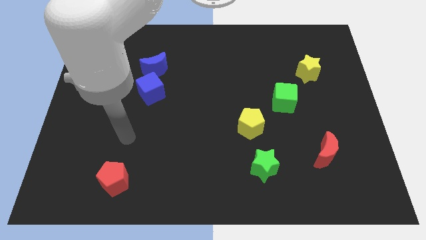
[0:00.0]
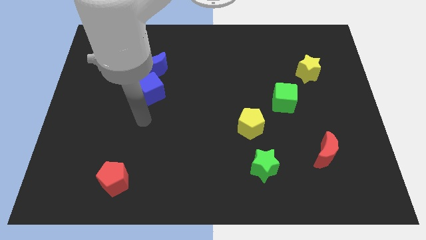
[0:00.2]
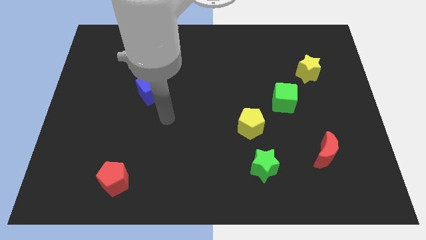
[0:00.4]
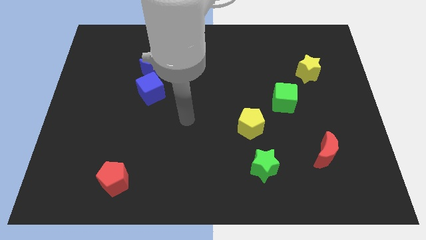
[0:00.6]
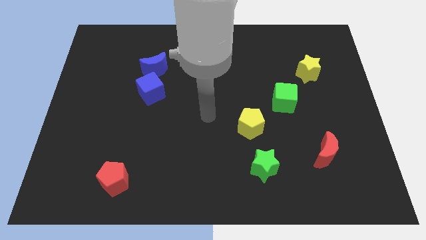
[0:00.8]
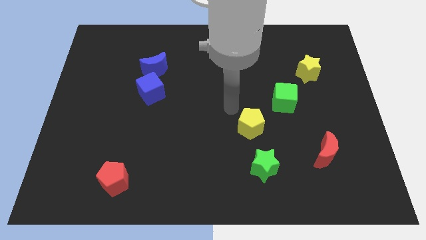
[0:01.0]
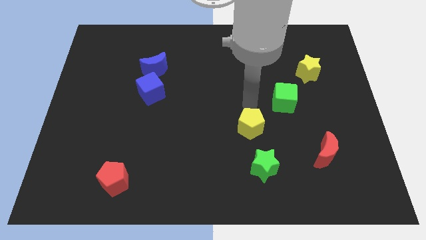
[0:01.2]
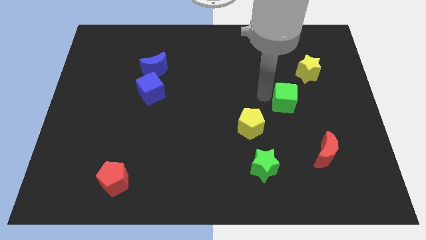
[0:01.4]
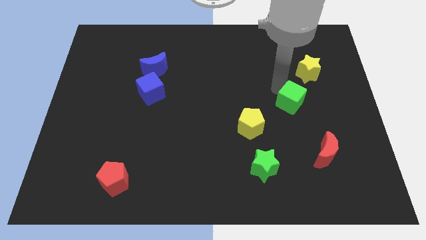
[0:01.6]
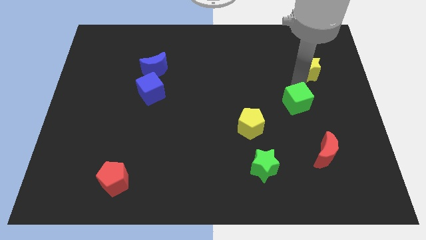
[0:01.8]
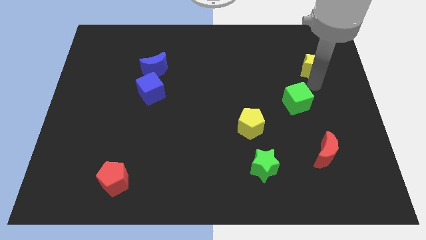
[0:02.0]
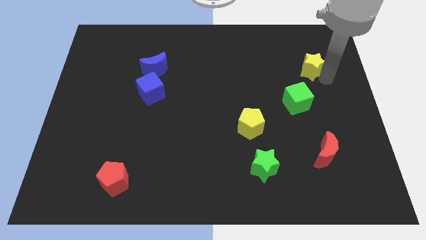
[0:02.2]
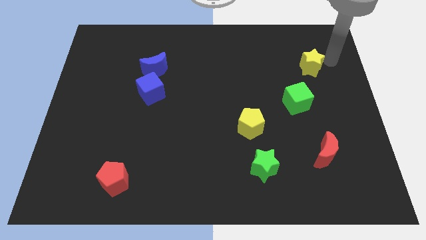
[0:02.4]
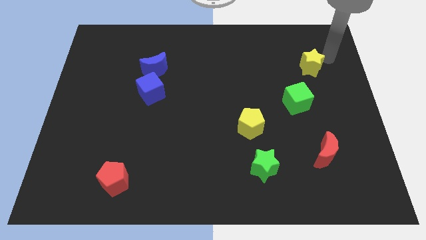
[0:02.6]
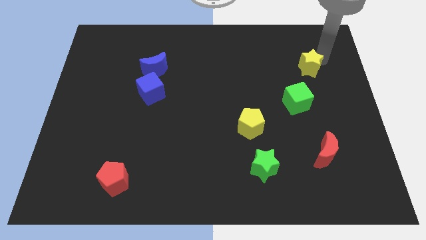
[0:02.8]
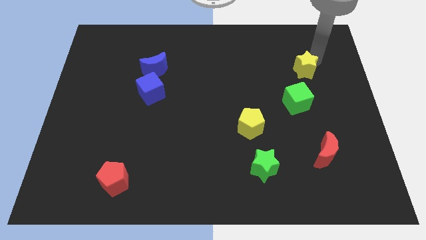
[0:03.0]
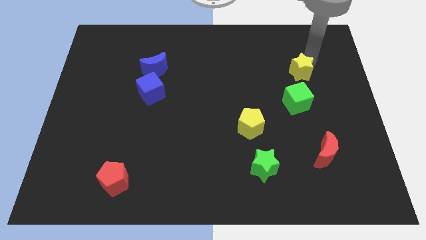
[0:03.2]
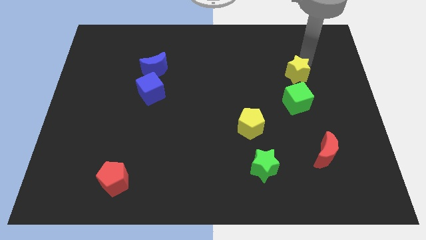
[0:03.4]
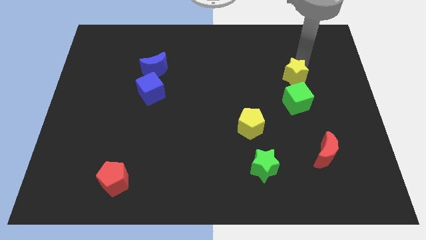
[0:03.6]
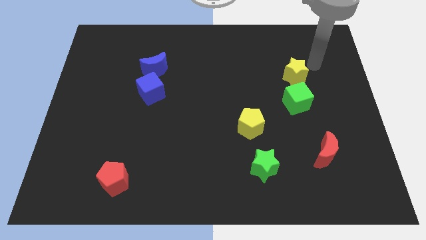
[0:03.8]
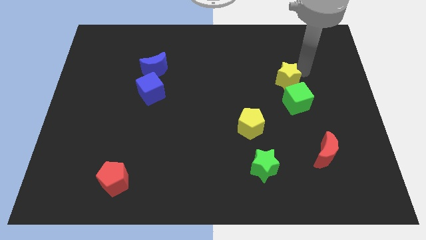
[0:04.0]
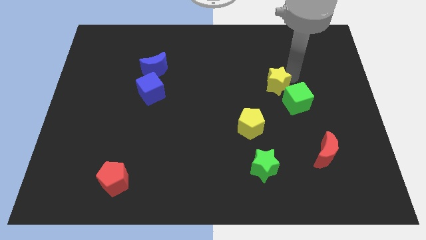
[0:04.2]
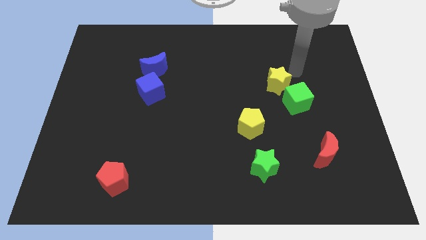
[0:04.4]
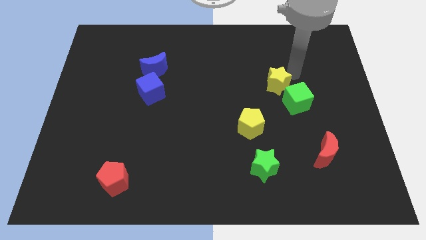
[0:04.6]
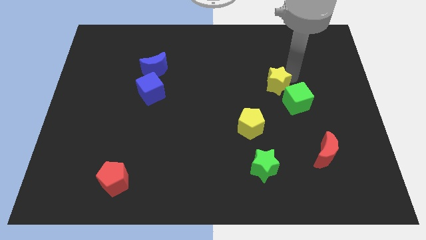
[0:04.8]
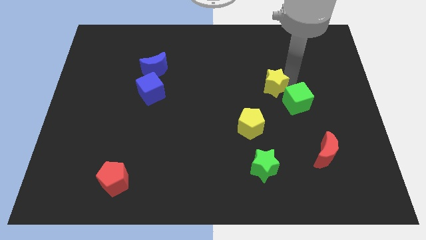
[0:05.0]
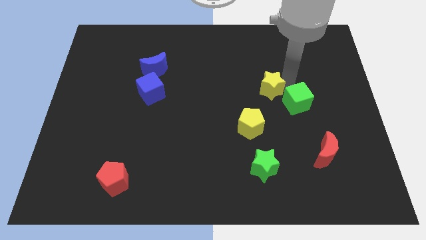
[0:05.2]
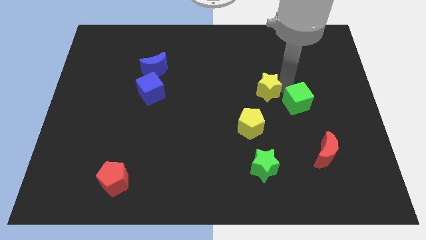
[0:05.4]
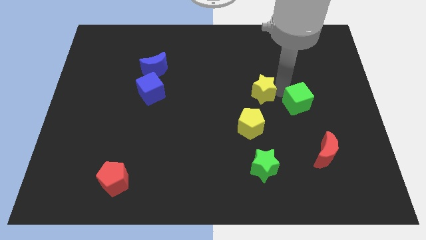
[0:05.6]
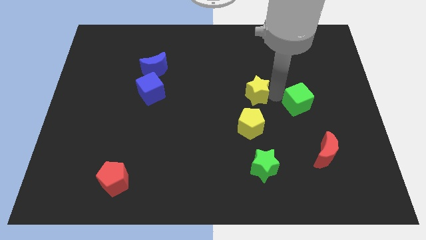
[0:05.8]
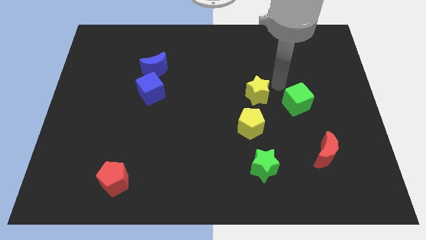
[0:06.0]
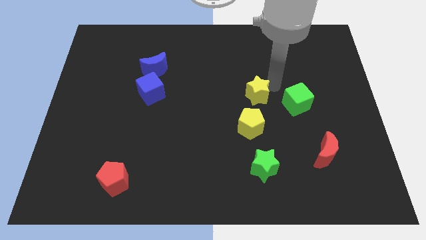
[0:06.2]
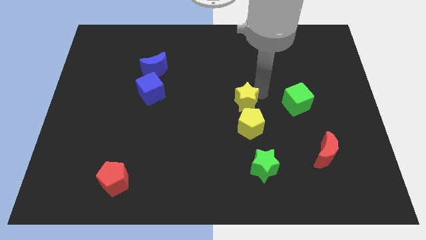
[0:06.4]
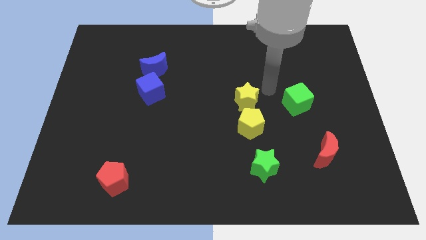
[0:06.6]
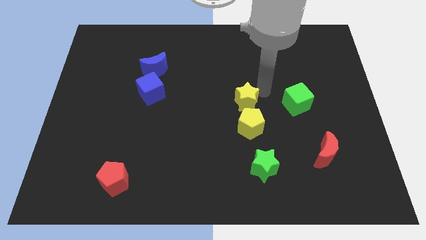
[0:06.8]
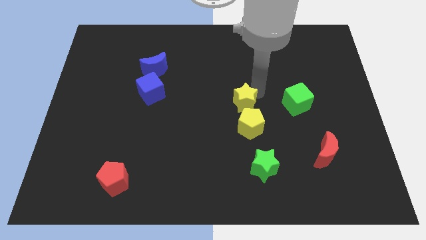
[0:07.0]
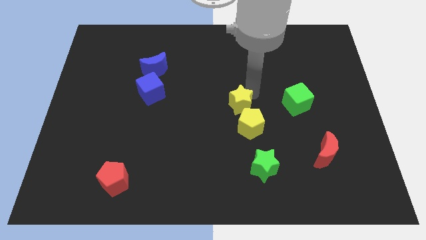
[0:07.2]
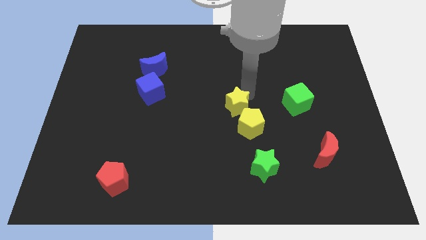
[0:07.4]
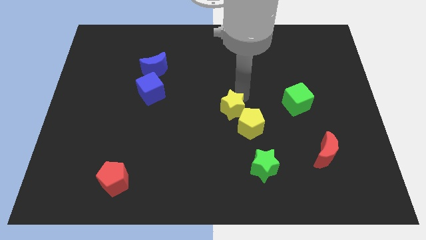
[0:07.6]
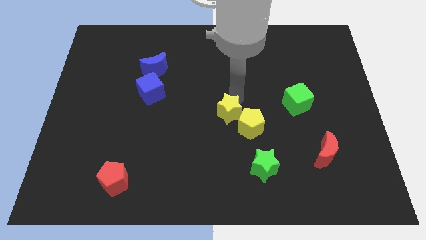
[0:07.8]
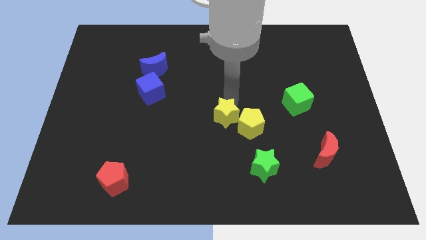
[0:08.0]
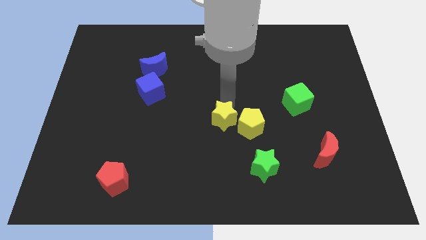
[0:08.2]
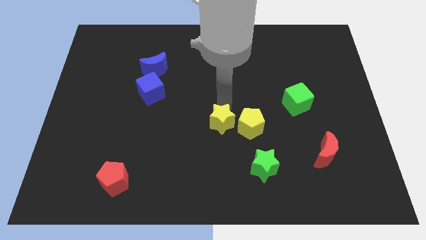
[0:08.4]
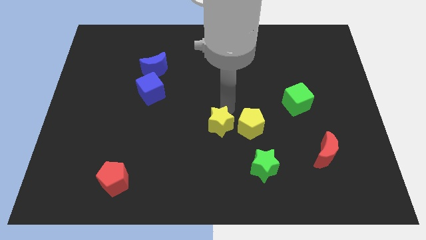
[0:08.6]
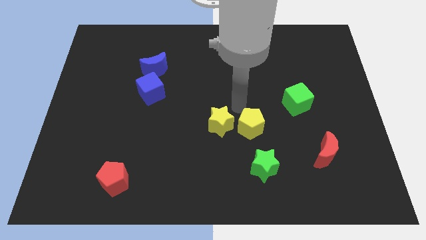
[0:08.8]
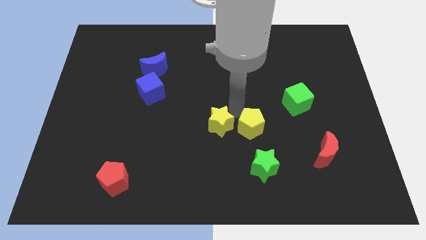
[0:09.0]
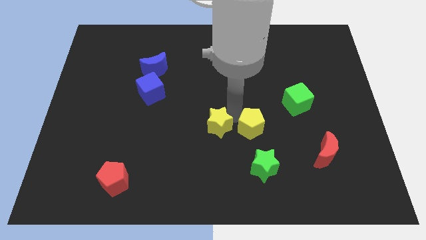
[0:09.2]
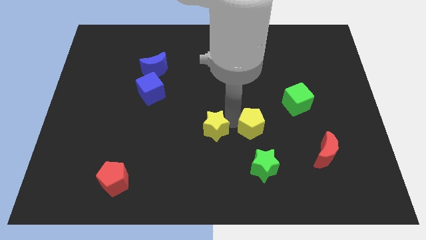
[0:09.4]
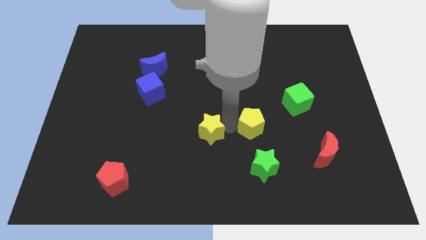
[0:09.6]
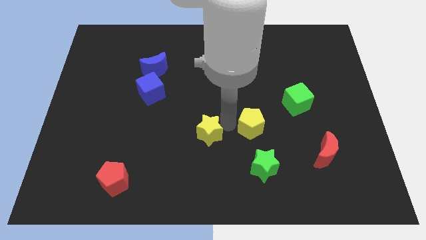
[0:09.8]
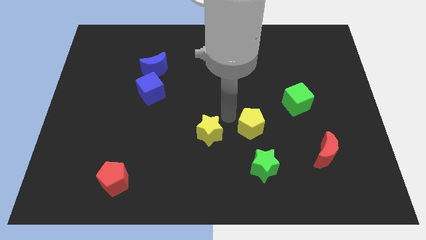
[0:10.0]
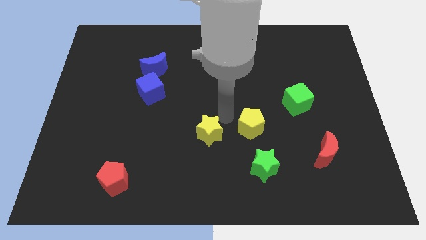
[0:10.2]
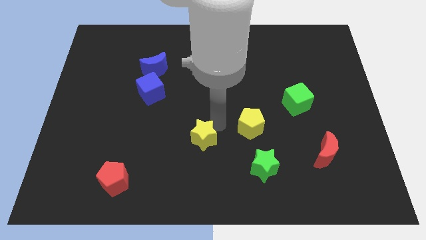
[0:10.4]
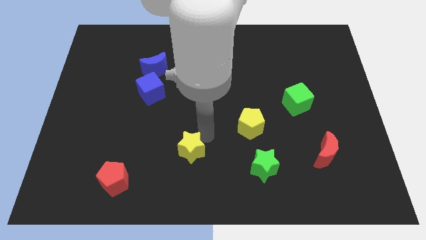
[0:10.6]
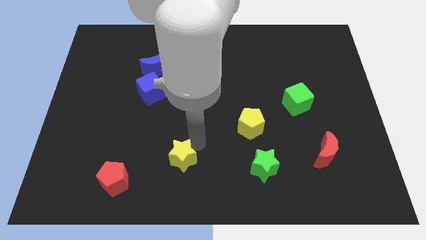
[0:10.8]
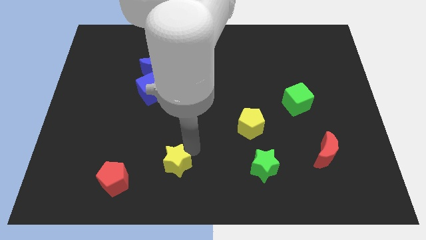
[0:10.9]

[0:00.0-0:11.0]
push the yellow star to the right side of the red pentagon
